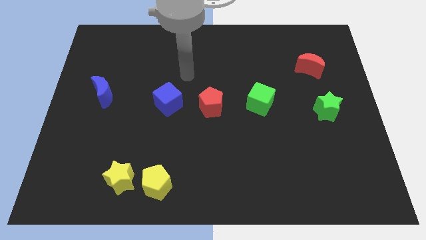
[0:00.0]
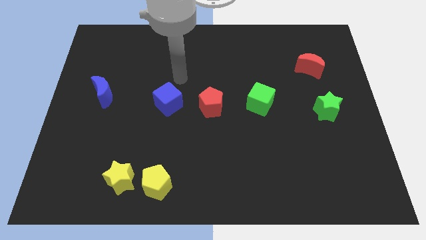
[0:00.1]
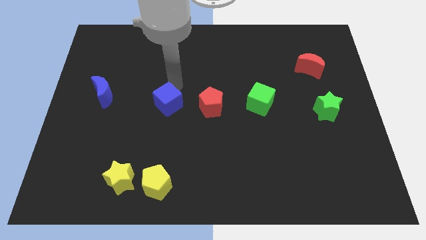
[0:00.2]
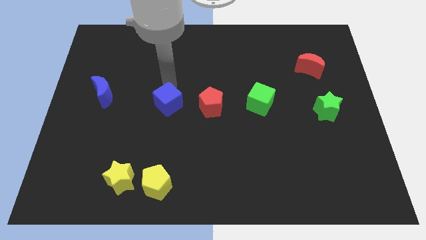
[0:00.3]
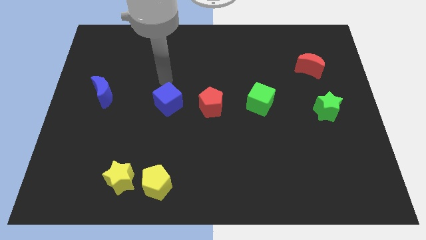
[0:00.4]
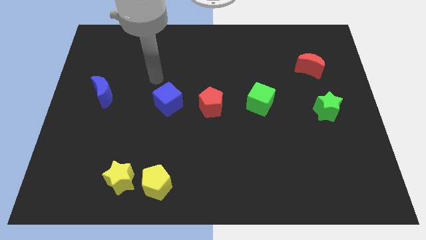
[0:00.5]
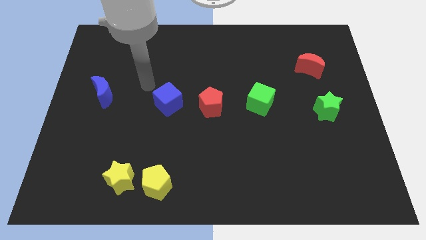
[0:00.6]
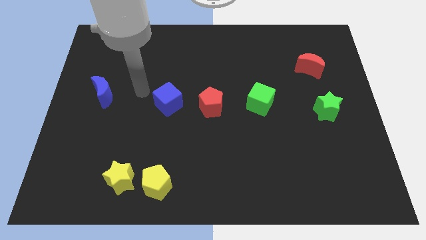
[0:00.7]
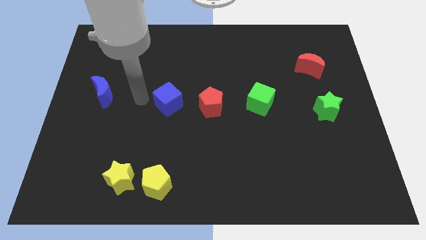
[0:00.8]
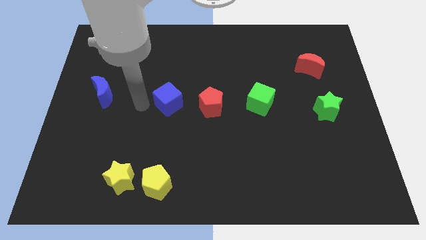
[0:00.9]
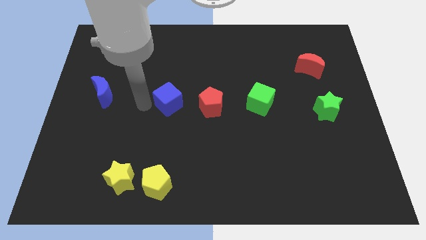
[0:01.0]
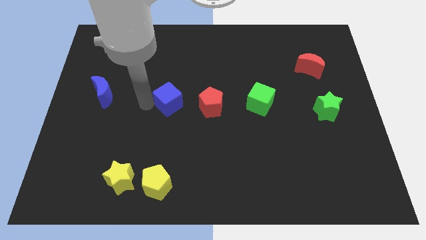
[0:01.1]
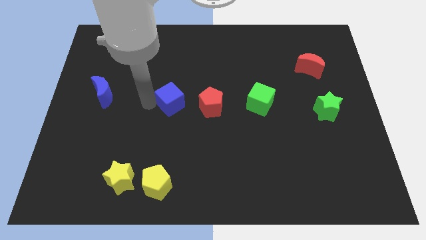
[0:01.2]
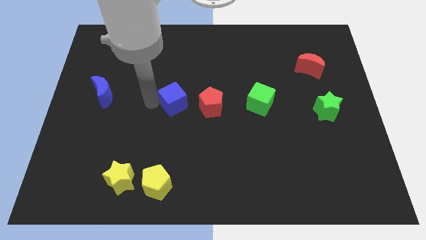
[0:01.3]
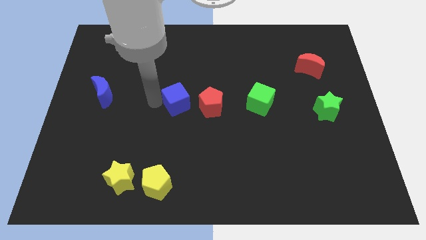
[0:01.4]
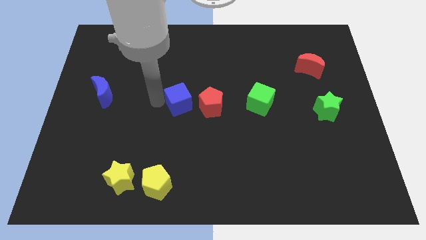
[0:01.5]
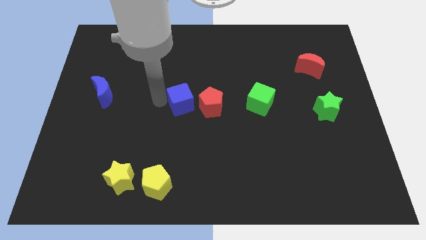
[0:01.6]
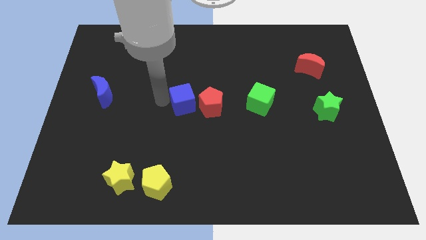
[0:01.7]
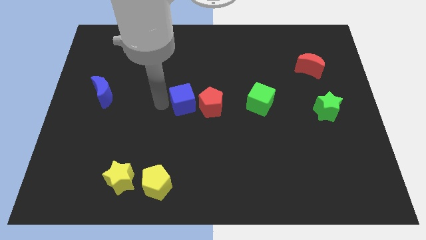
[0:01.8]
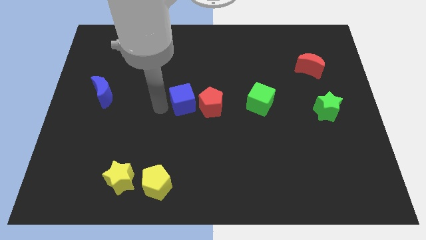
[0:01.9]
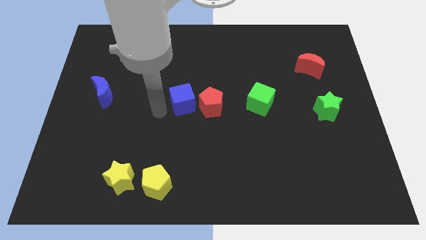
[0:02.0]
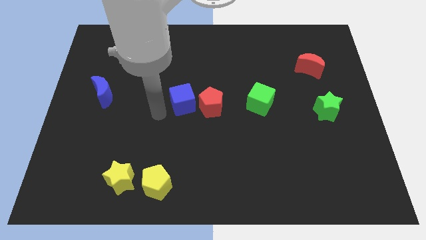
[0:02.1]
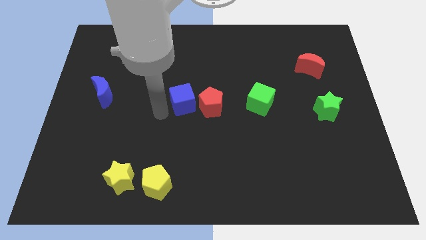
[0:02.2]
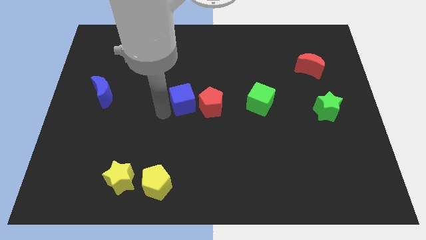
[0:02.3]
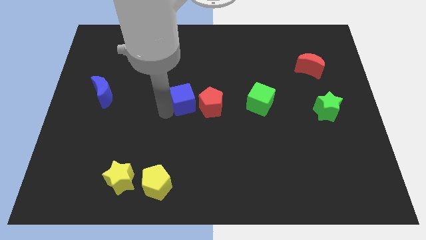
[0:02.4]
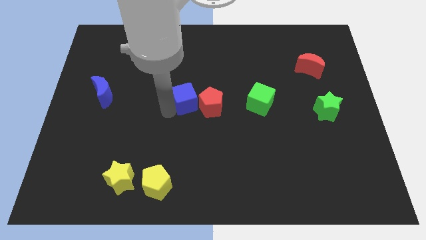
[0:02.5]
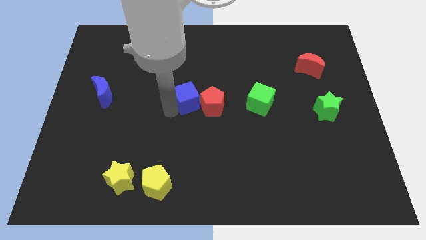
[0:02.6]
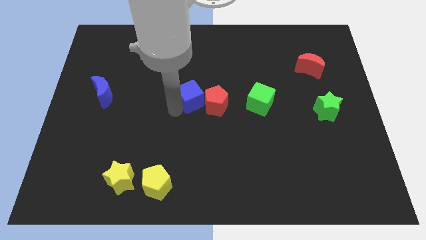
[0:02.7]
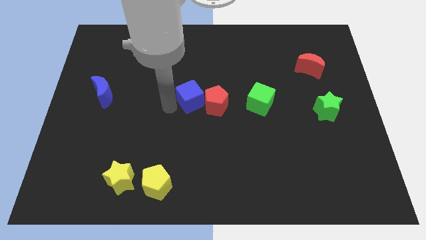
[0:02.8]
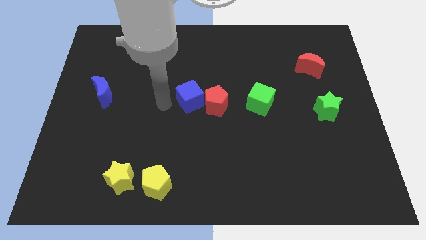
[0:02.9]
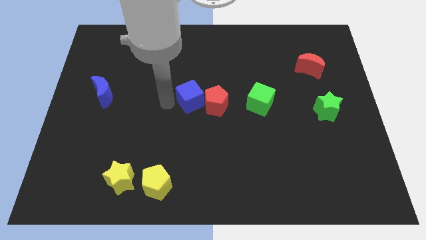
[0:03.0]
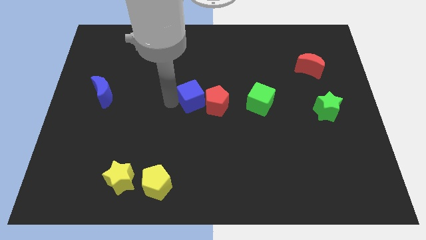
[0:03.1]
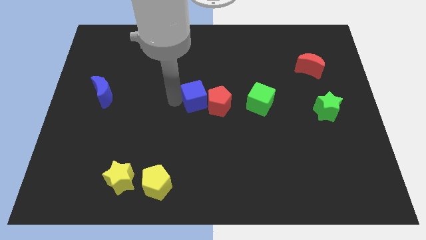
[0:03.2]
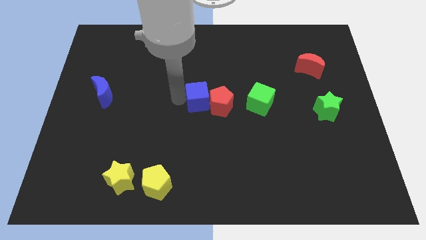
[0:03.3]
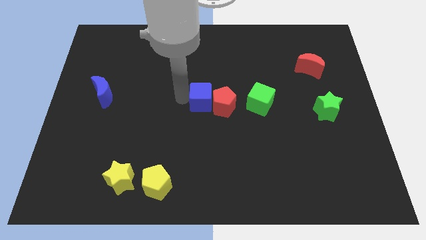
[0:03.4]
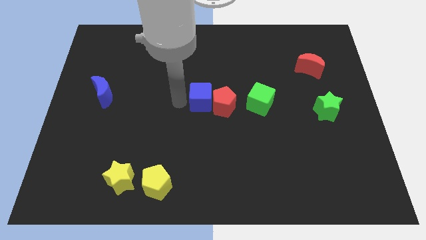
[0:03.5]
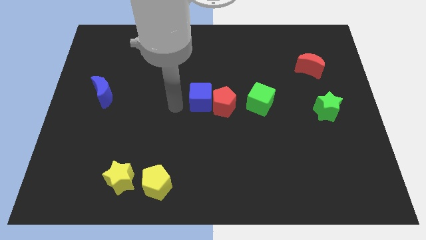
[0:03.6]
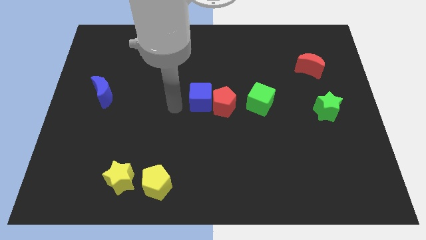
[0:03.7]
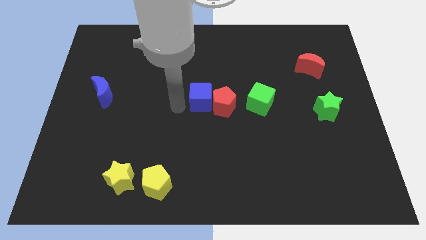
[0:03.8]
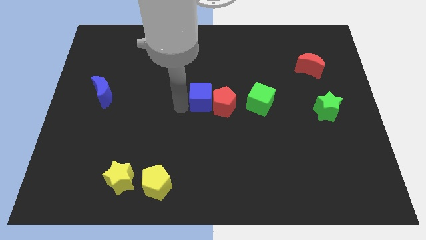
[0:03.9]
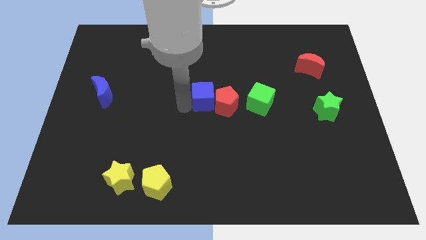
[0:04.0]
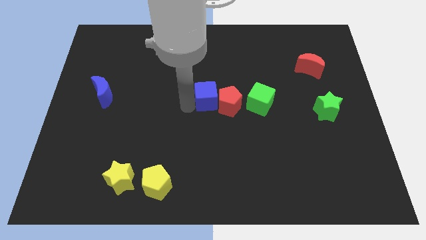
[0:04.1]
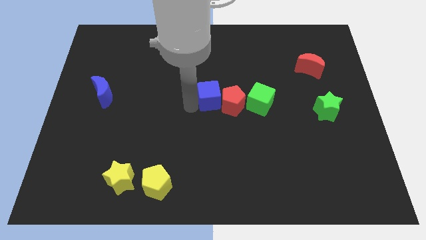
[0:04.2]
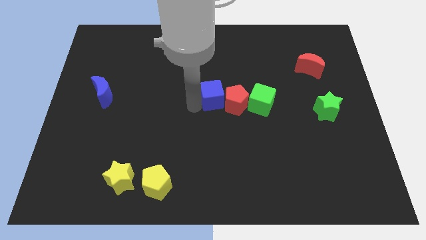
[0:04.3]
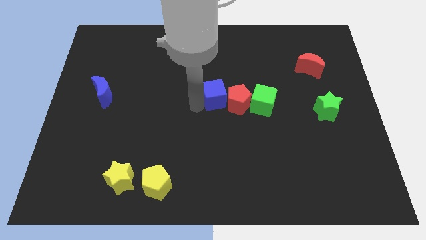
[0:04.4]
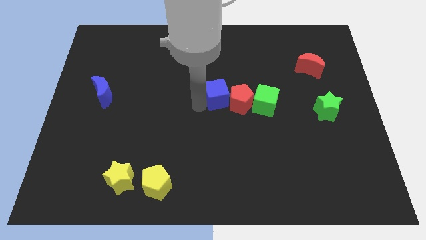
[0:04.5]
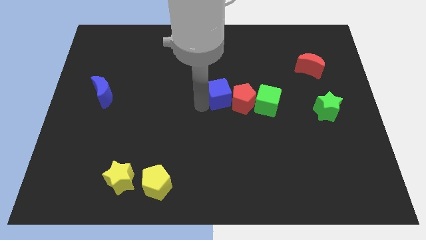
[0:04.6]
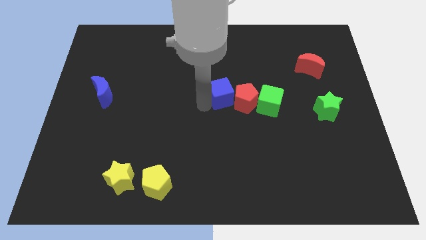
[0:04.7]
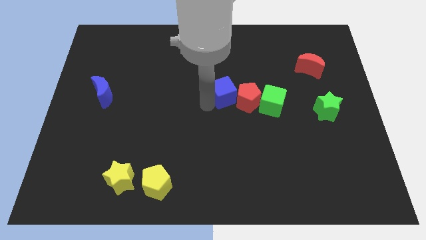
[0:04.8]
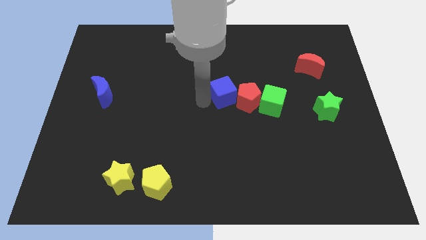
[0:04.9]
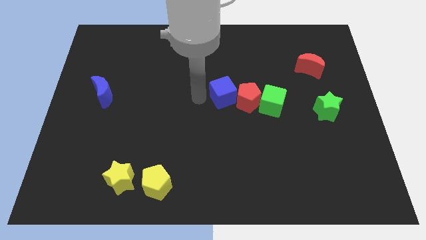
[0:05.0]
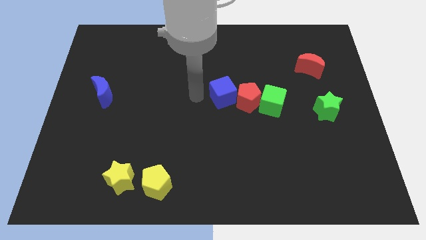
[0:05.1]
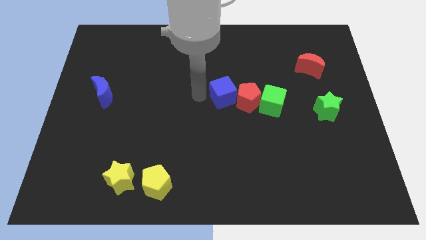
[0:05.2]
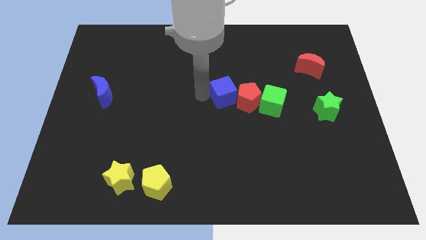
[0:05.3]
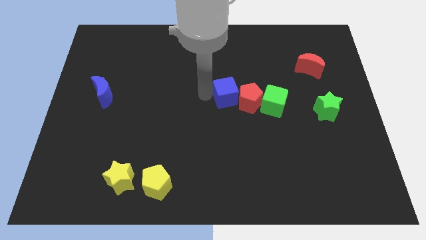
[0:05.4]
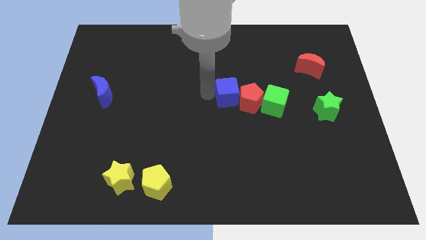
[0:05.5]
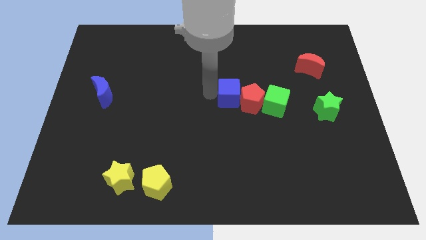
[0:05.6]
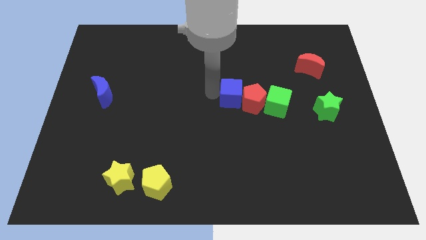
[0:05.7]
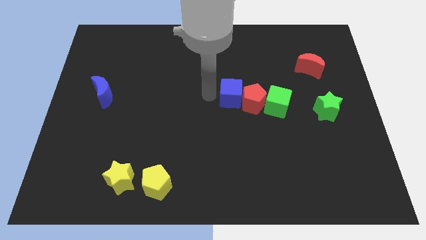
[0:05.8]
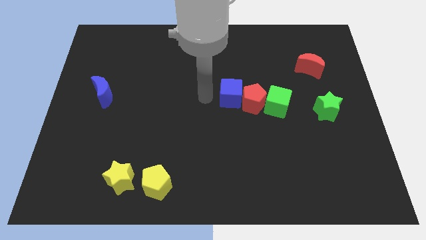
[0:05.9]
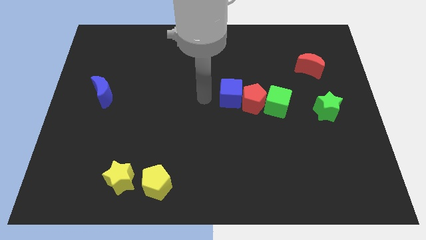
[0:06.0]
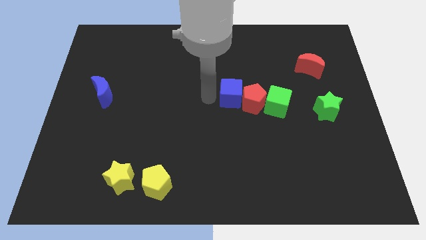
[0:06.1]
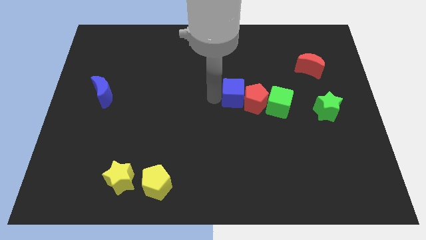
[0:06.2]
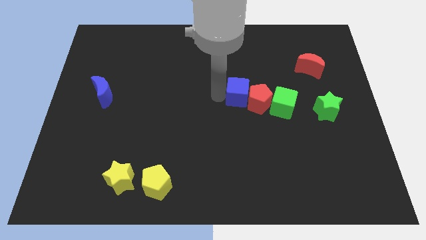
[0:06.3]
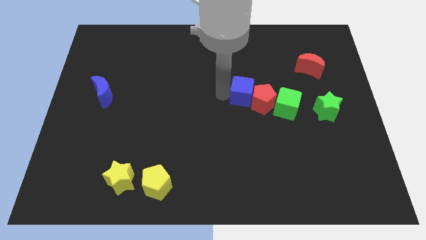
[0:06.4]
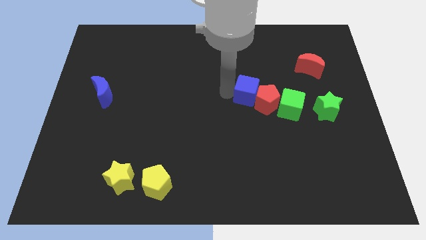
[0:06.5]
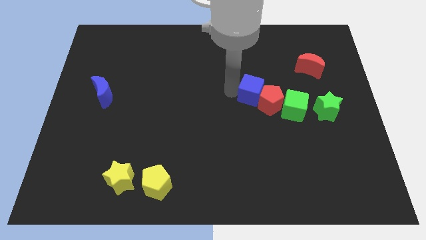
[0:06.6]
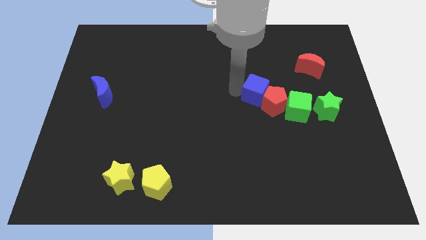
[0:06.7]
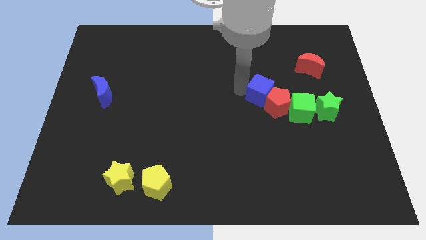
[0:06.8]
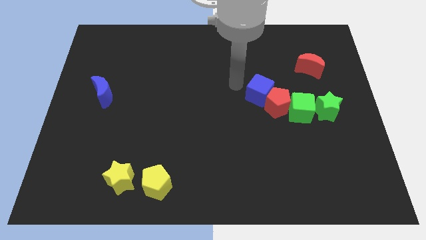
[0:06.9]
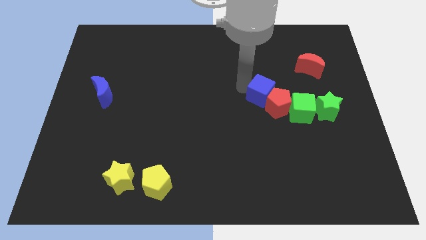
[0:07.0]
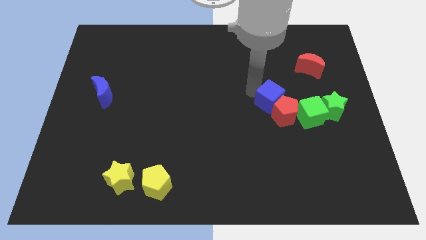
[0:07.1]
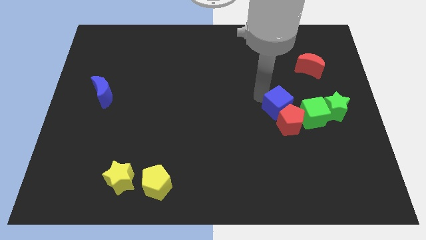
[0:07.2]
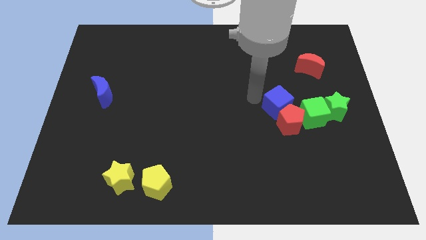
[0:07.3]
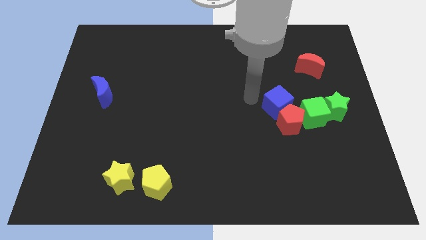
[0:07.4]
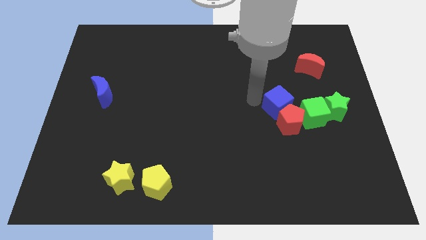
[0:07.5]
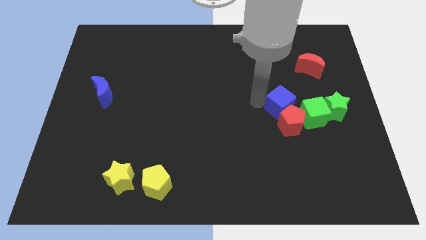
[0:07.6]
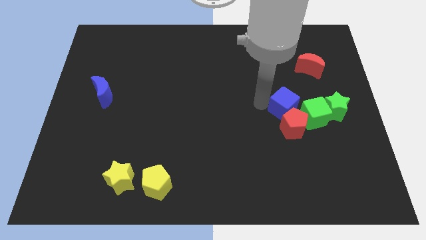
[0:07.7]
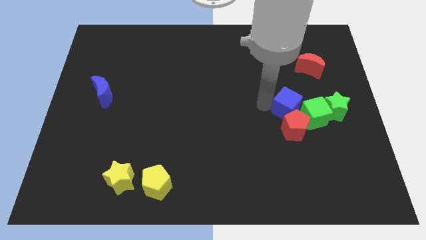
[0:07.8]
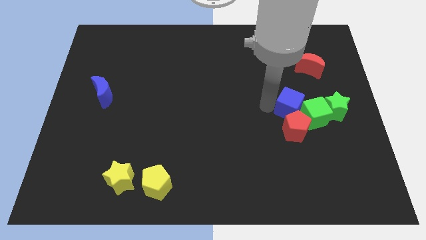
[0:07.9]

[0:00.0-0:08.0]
slide the blue cube close to the green cube
